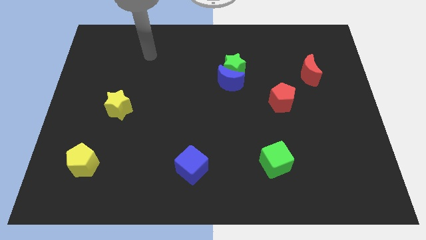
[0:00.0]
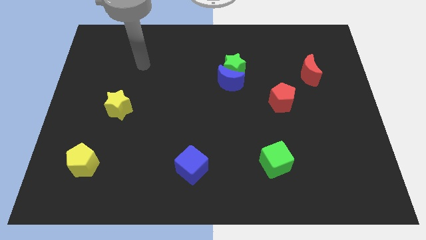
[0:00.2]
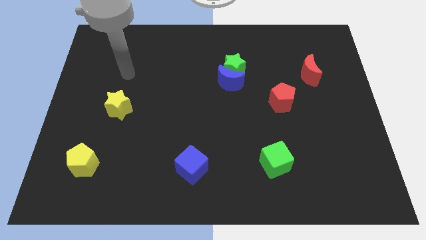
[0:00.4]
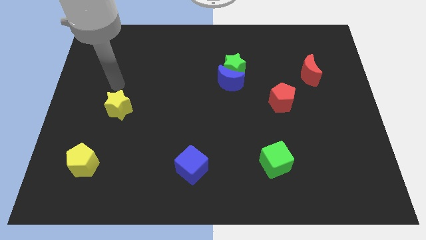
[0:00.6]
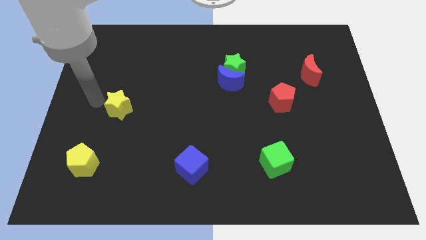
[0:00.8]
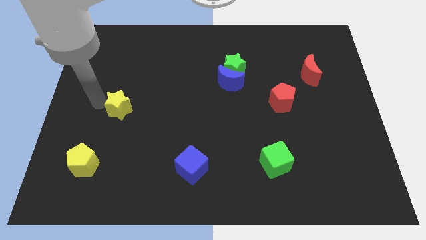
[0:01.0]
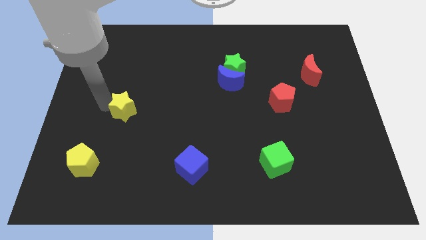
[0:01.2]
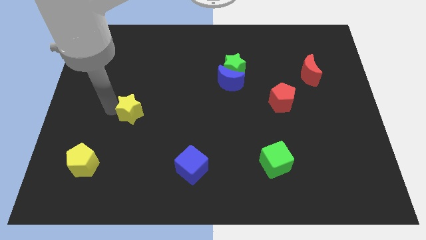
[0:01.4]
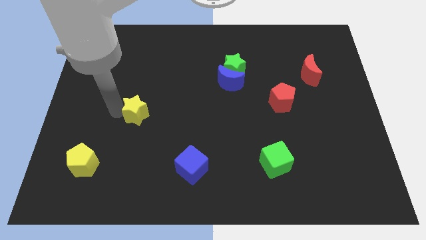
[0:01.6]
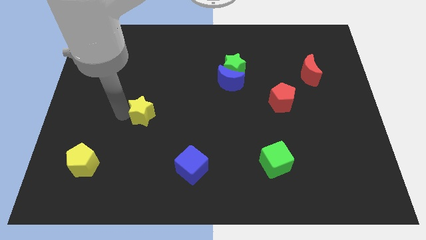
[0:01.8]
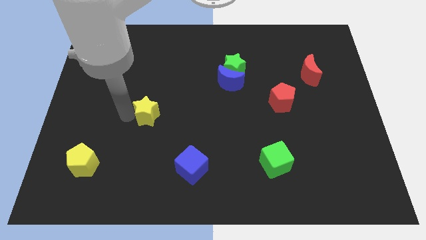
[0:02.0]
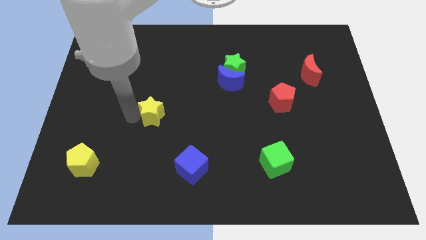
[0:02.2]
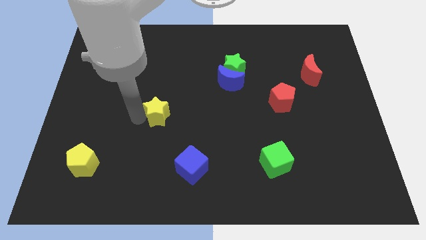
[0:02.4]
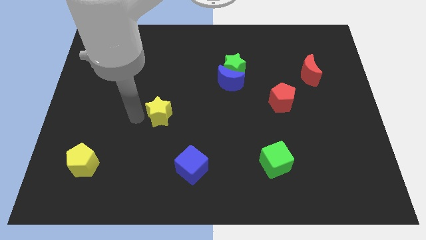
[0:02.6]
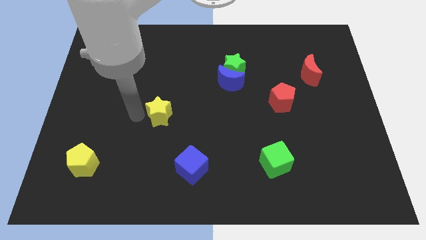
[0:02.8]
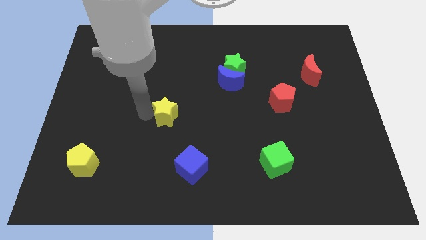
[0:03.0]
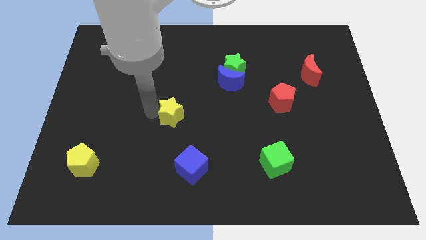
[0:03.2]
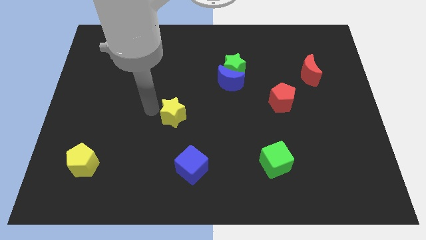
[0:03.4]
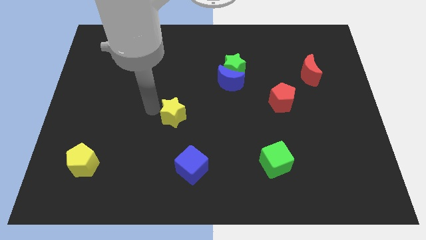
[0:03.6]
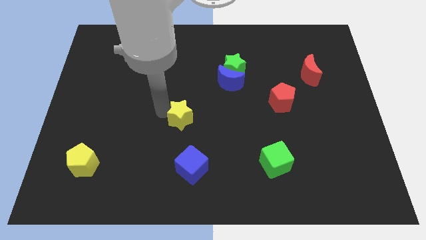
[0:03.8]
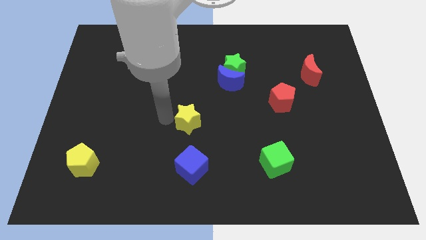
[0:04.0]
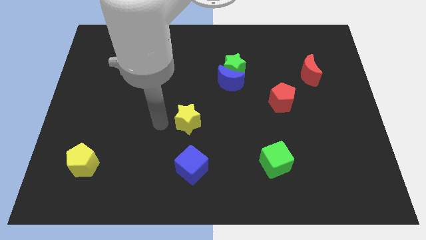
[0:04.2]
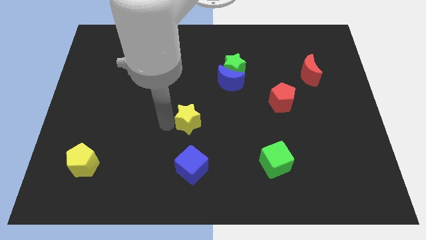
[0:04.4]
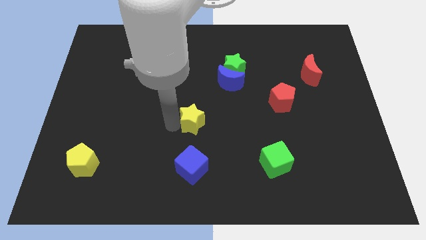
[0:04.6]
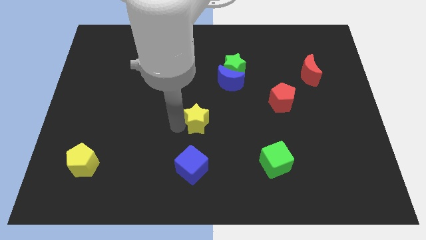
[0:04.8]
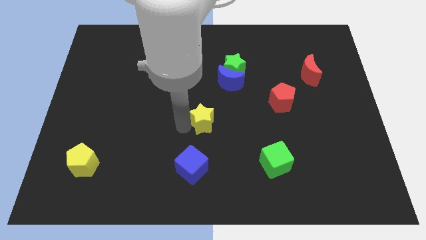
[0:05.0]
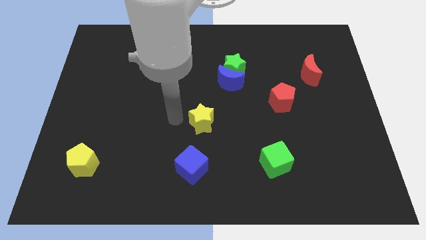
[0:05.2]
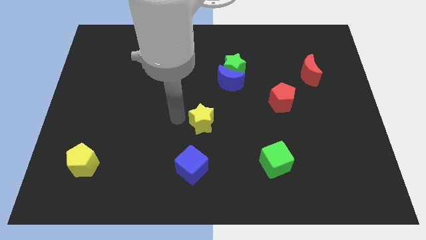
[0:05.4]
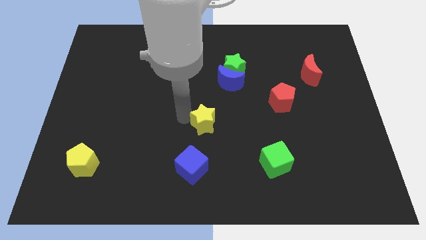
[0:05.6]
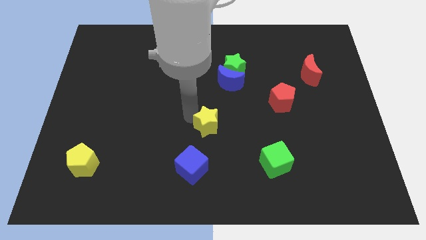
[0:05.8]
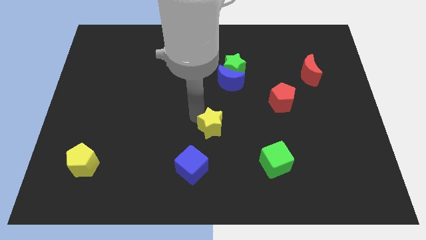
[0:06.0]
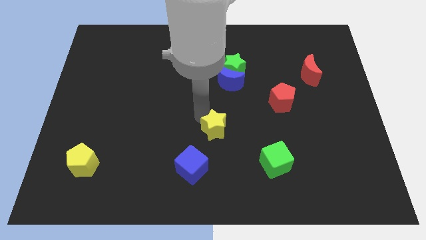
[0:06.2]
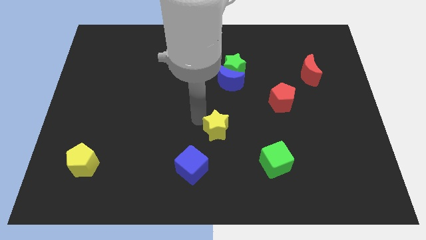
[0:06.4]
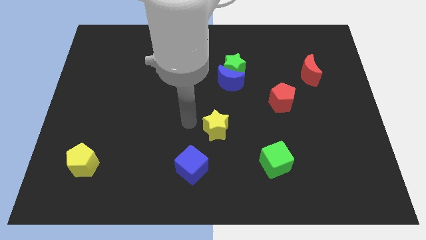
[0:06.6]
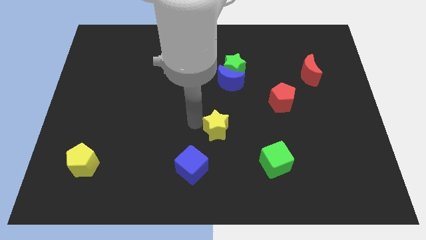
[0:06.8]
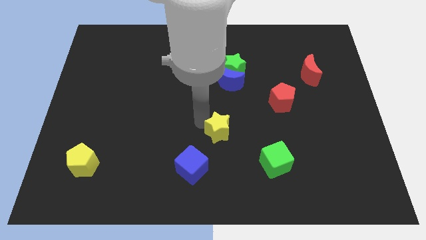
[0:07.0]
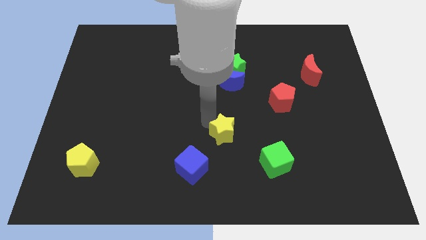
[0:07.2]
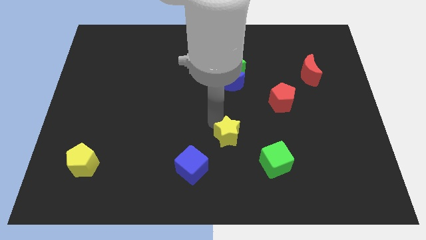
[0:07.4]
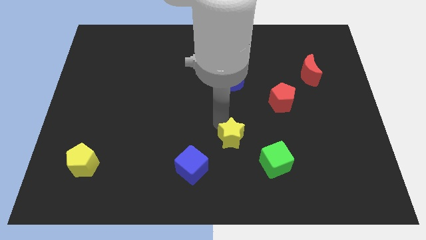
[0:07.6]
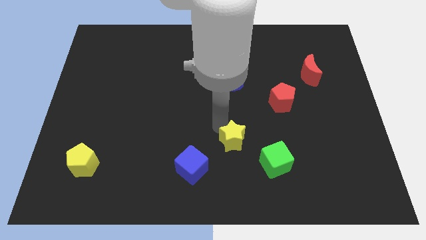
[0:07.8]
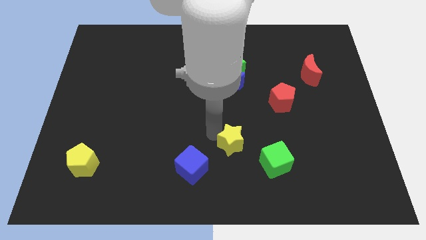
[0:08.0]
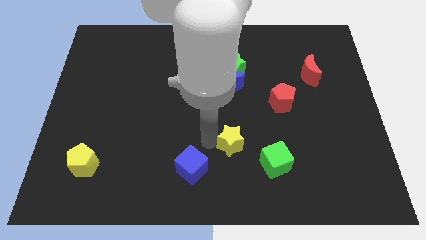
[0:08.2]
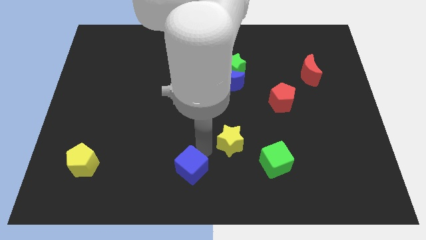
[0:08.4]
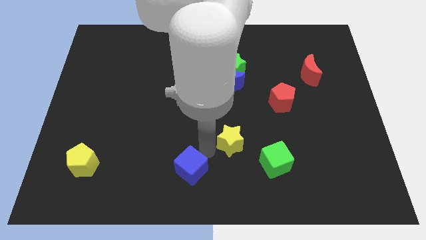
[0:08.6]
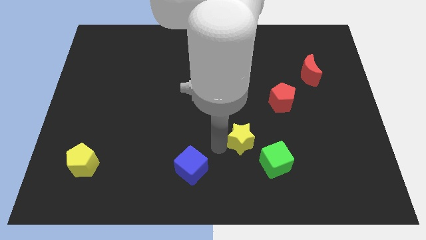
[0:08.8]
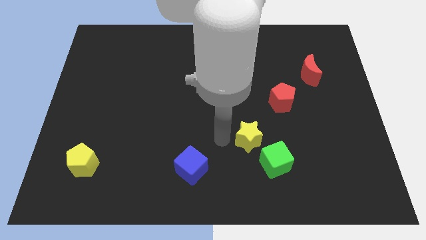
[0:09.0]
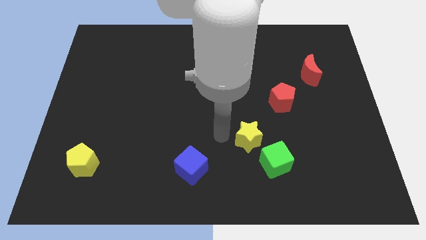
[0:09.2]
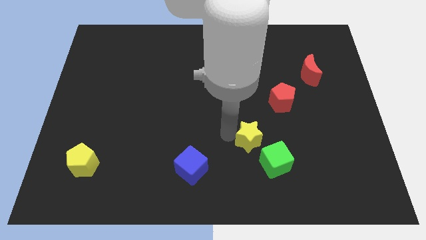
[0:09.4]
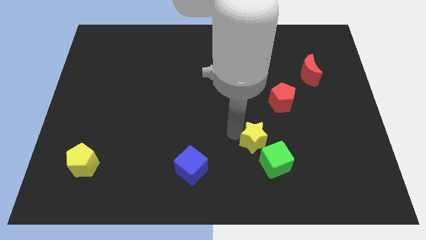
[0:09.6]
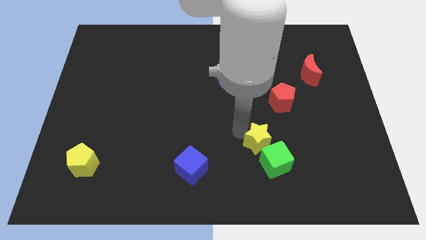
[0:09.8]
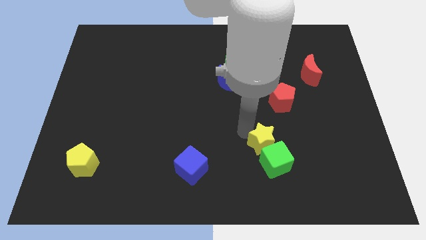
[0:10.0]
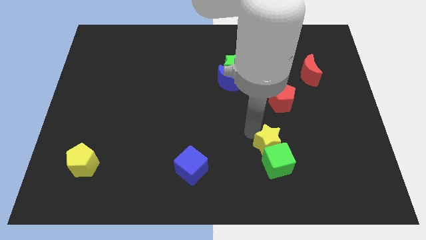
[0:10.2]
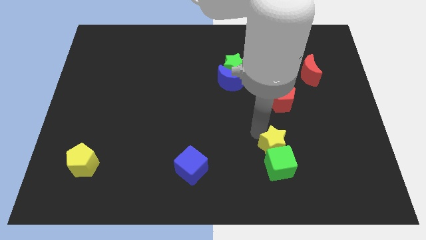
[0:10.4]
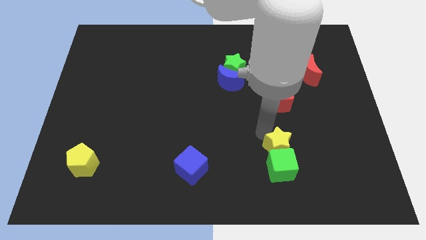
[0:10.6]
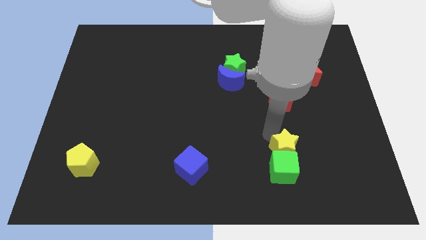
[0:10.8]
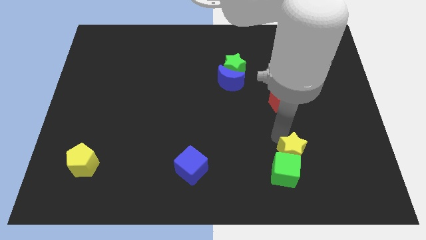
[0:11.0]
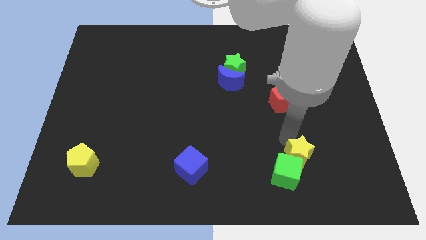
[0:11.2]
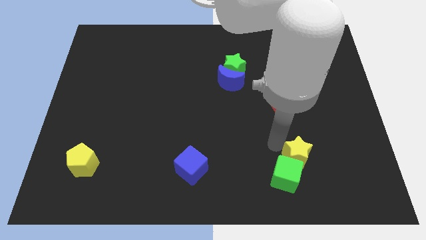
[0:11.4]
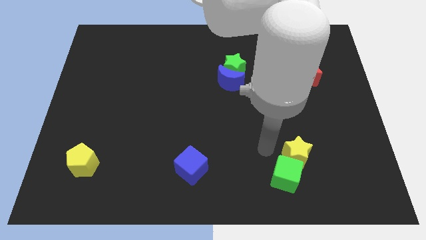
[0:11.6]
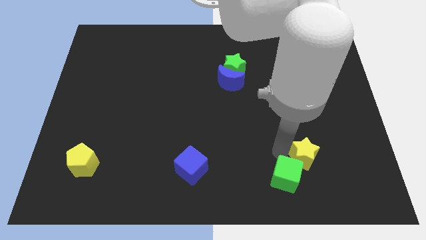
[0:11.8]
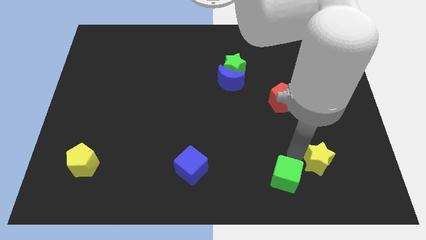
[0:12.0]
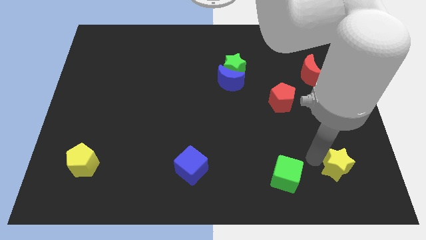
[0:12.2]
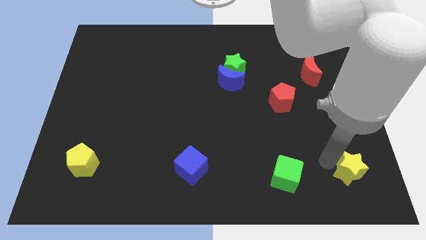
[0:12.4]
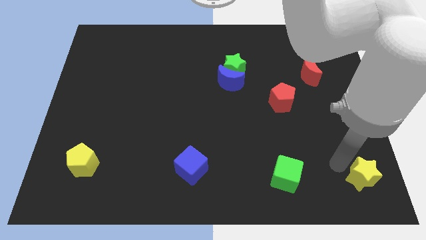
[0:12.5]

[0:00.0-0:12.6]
put the yellow star to the bottom right of the board
